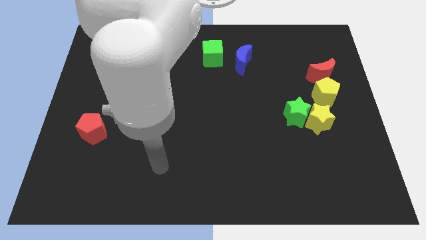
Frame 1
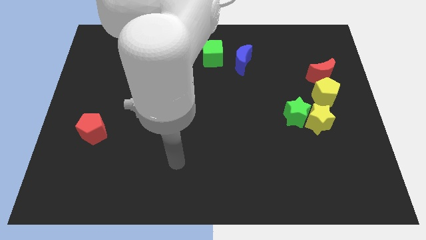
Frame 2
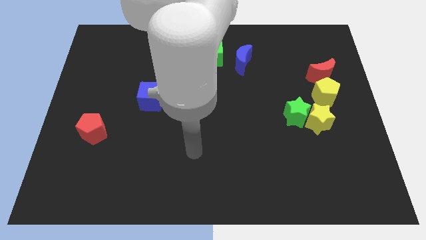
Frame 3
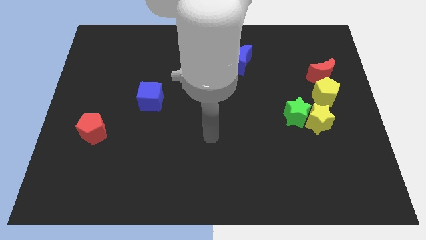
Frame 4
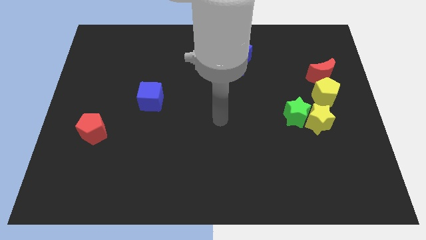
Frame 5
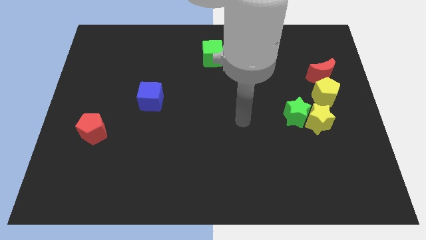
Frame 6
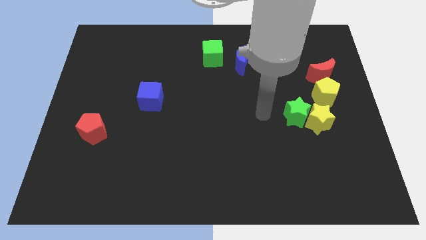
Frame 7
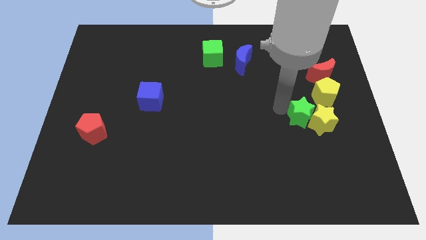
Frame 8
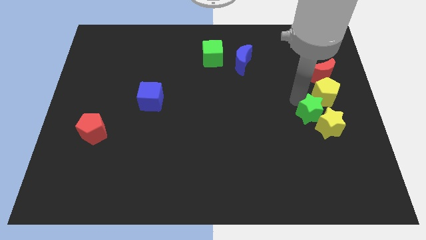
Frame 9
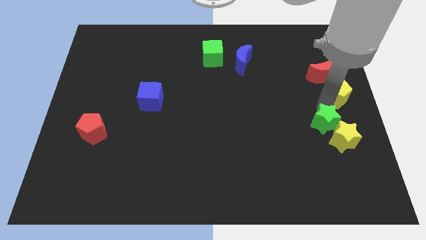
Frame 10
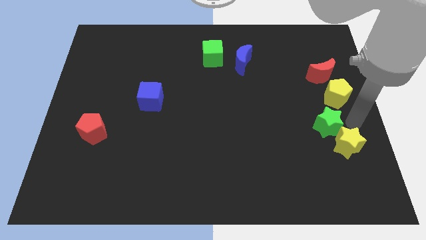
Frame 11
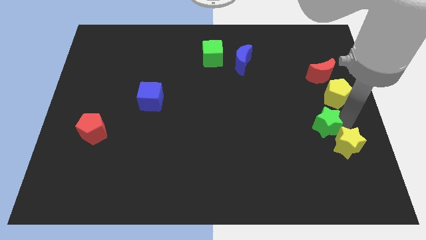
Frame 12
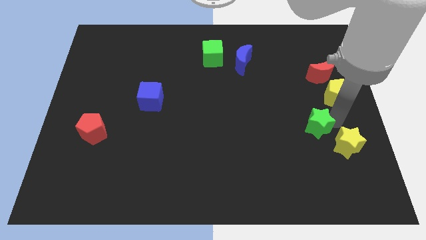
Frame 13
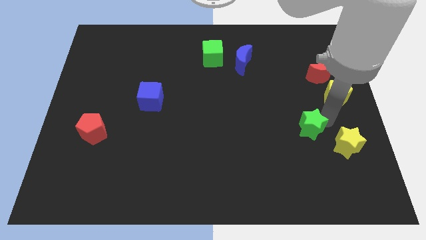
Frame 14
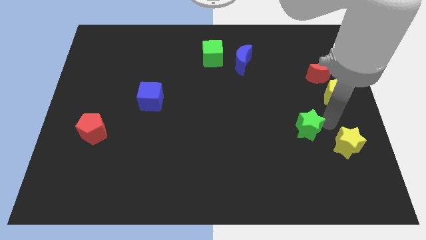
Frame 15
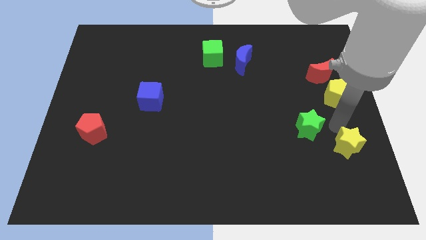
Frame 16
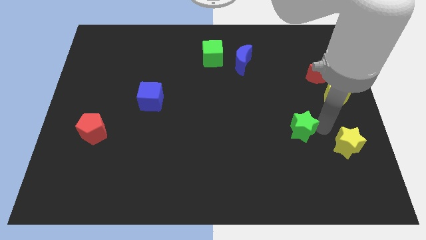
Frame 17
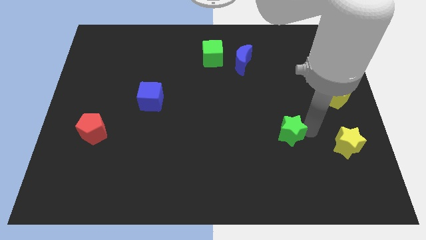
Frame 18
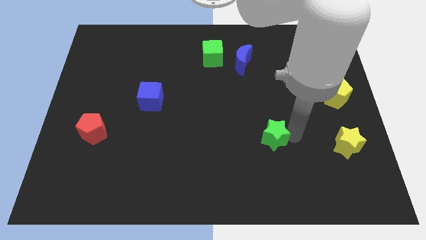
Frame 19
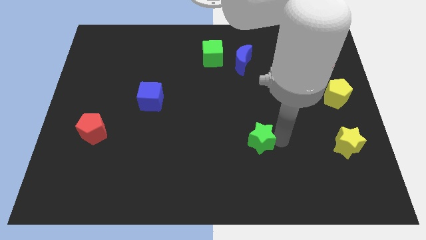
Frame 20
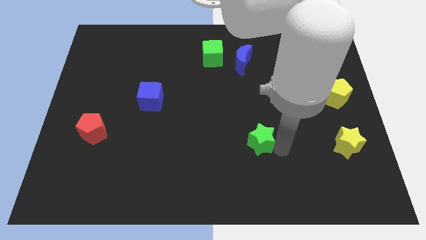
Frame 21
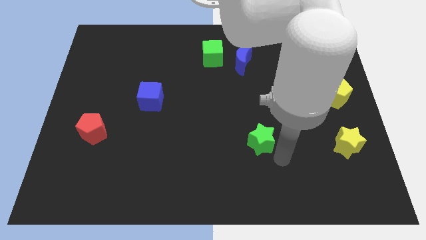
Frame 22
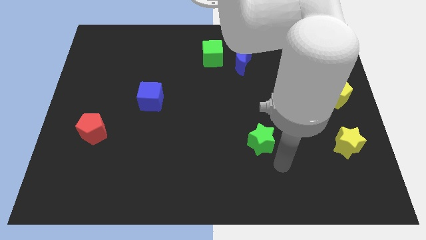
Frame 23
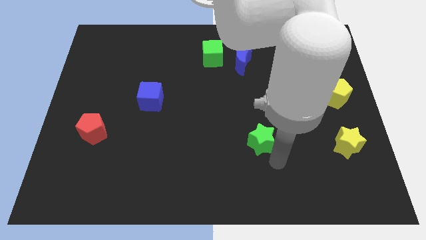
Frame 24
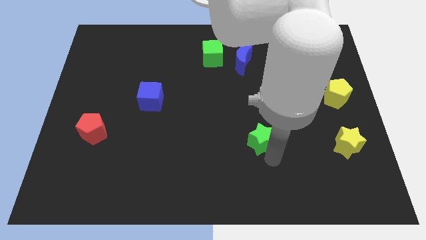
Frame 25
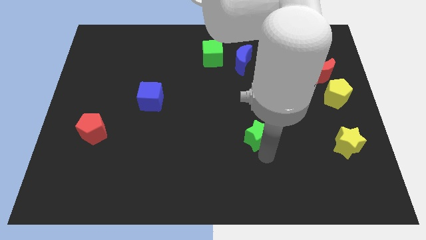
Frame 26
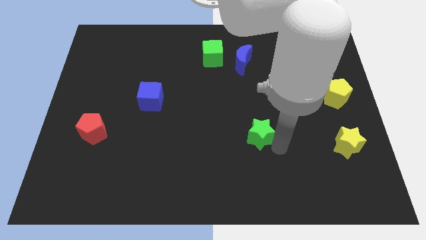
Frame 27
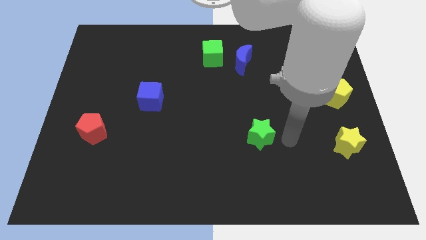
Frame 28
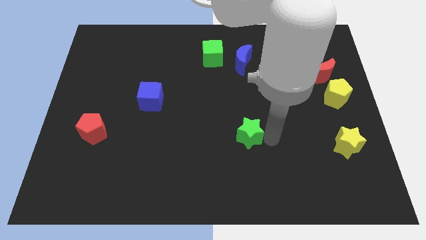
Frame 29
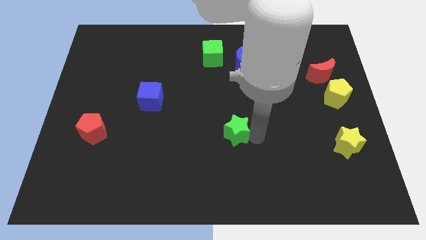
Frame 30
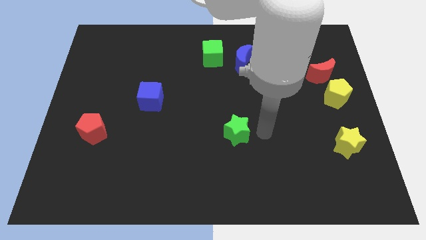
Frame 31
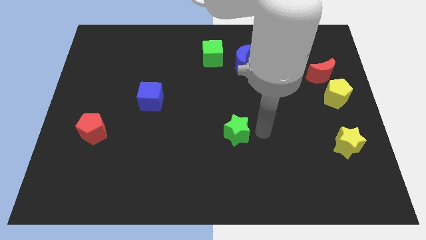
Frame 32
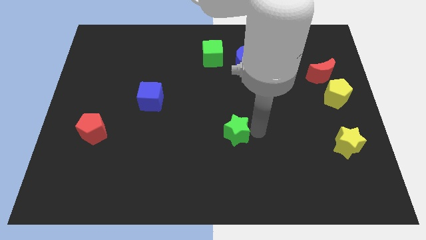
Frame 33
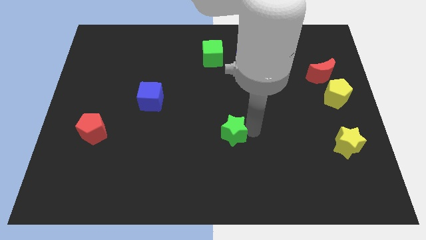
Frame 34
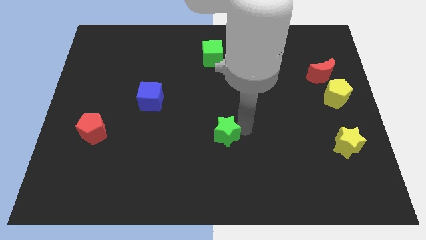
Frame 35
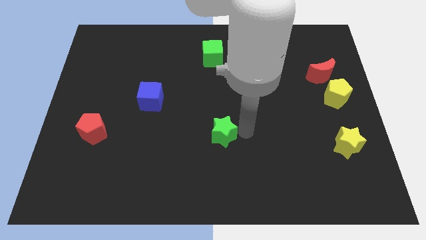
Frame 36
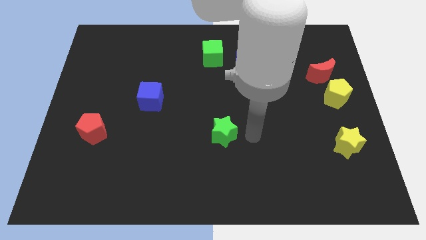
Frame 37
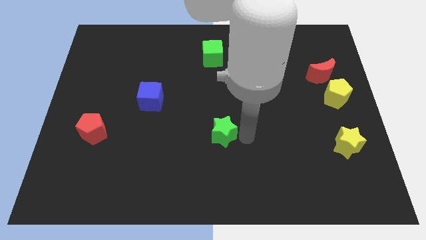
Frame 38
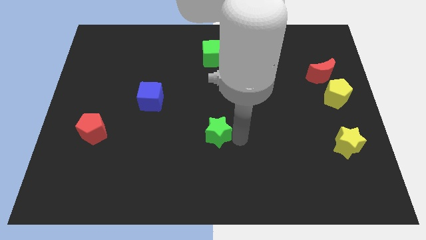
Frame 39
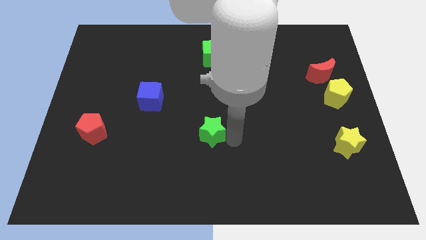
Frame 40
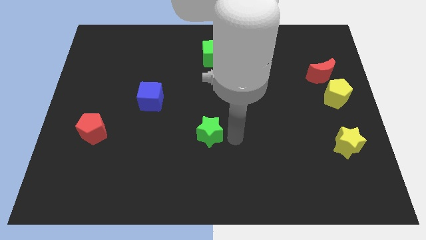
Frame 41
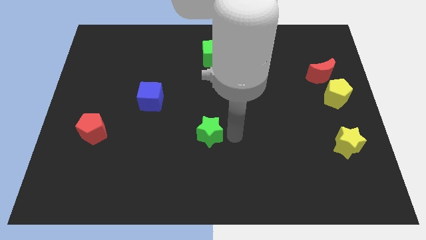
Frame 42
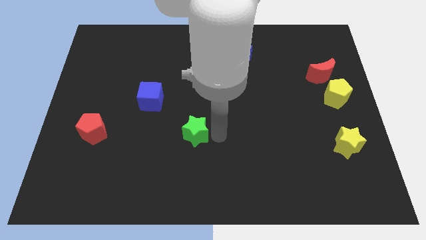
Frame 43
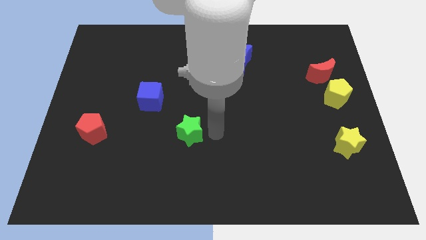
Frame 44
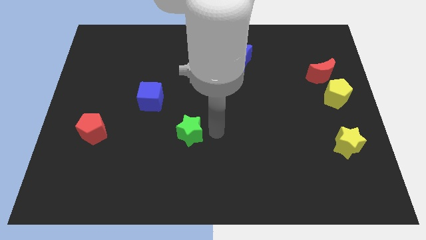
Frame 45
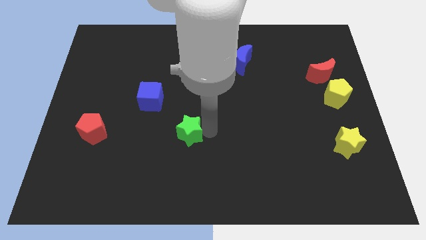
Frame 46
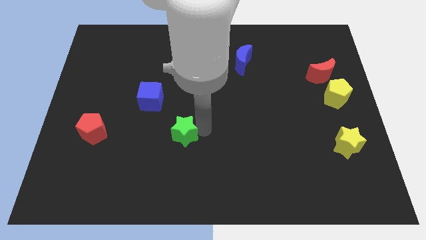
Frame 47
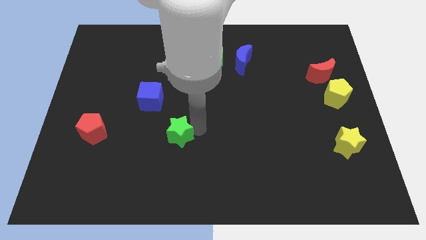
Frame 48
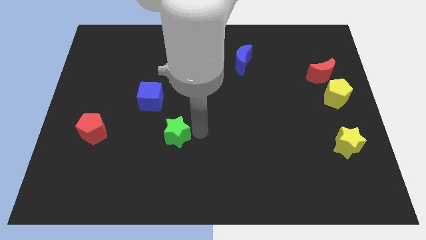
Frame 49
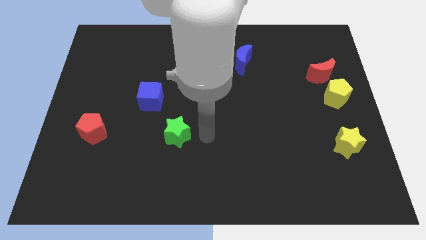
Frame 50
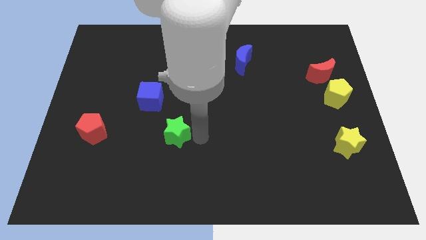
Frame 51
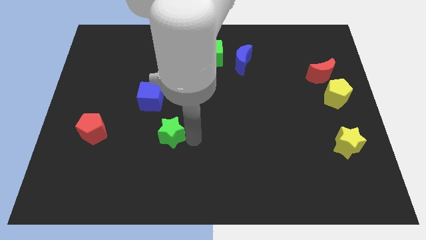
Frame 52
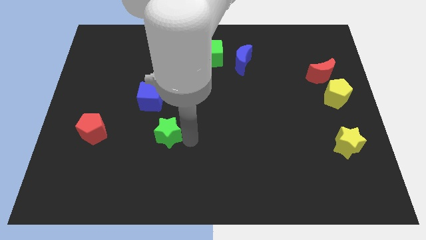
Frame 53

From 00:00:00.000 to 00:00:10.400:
push the green star to the bottom side of the blue cube

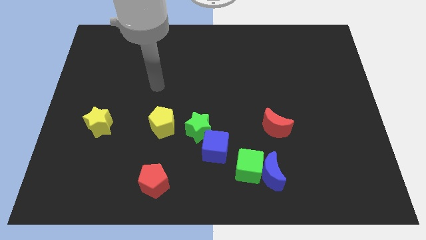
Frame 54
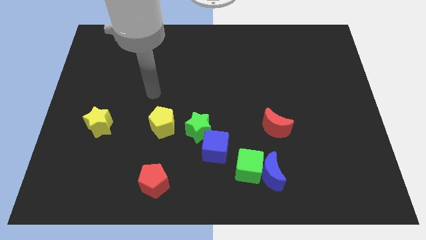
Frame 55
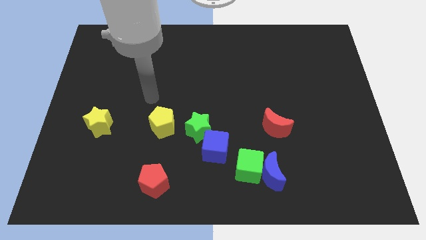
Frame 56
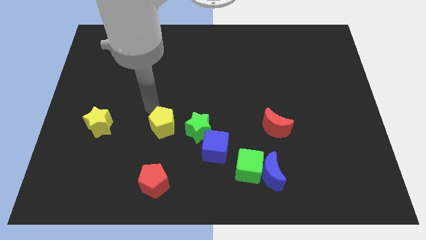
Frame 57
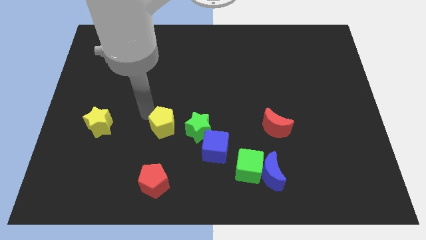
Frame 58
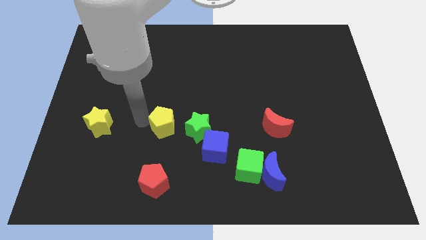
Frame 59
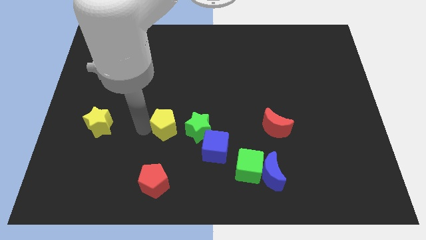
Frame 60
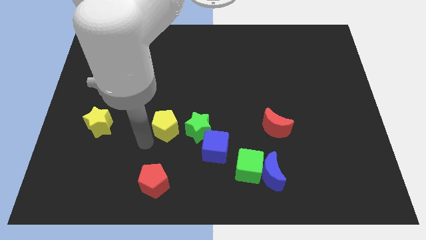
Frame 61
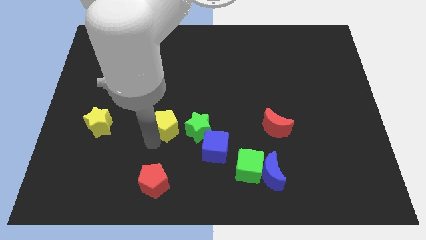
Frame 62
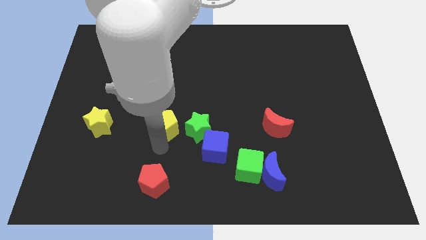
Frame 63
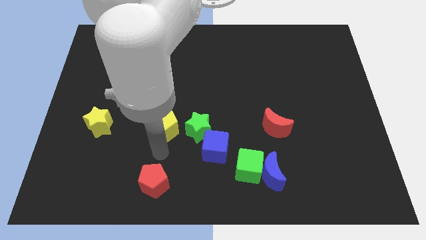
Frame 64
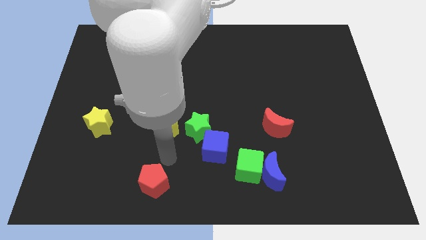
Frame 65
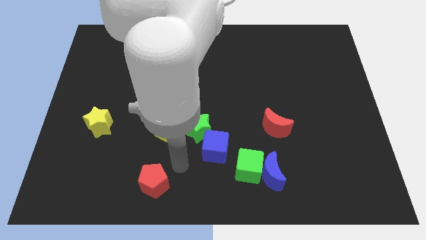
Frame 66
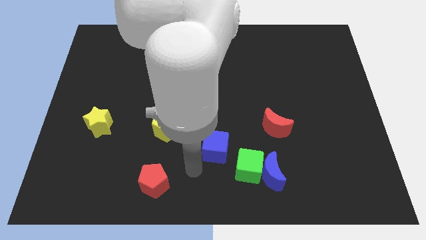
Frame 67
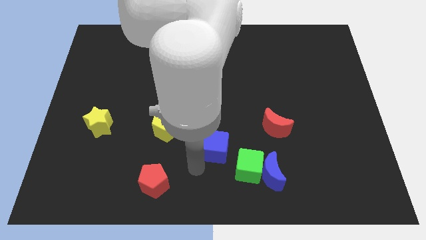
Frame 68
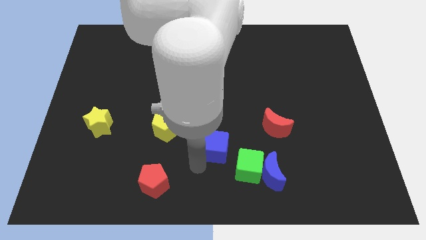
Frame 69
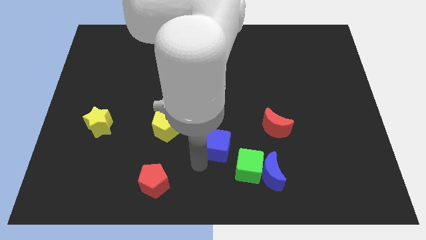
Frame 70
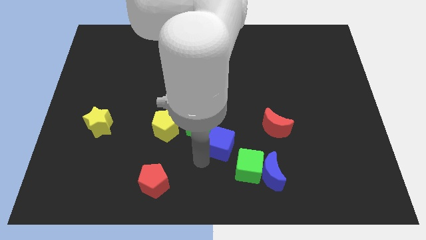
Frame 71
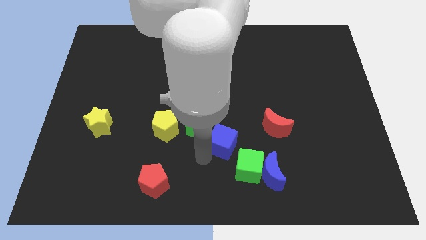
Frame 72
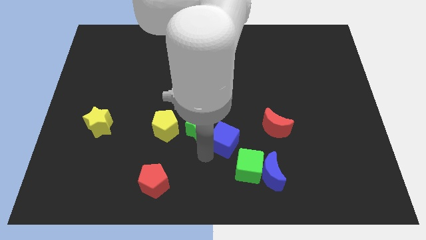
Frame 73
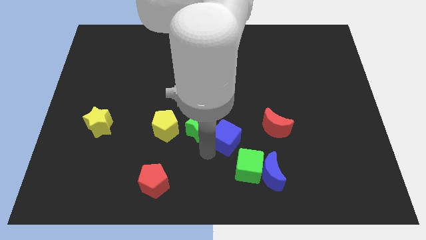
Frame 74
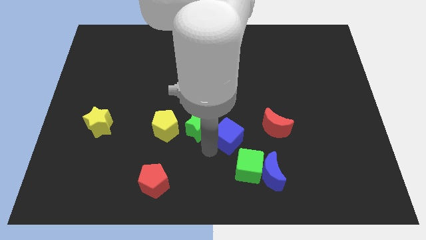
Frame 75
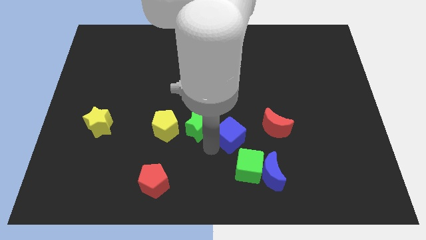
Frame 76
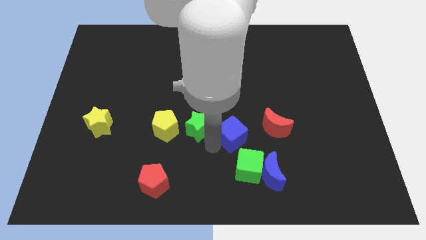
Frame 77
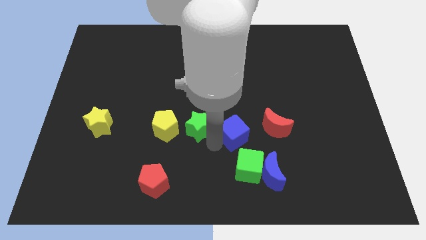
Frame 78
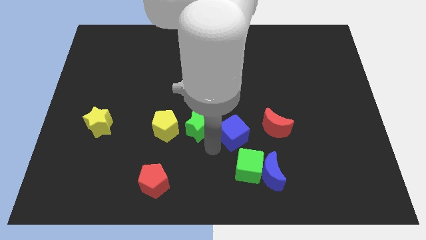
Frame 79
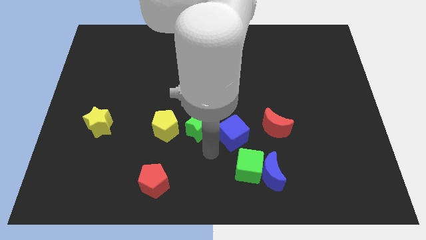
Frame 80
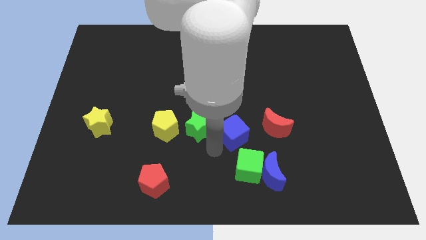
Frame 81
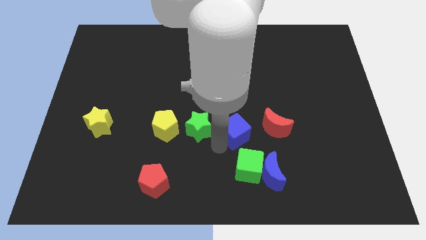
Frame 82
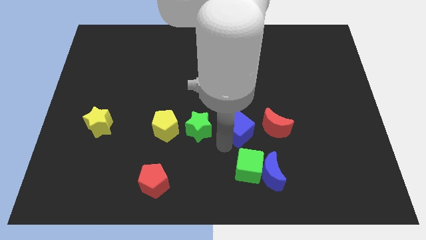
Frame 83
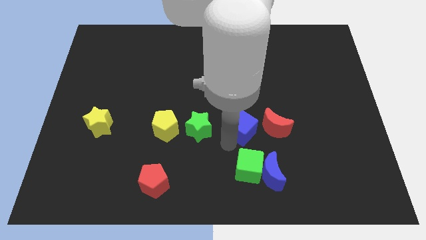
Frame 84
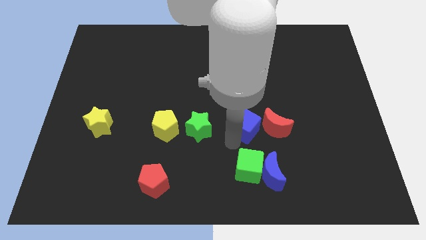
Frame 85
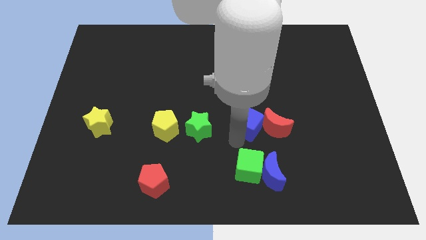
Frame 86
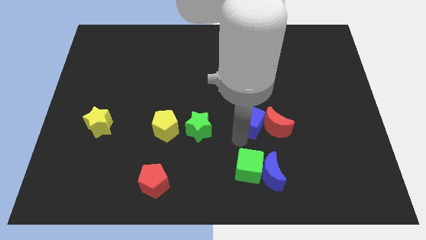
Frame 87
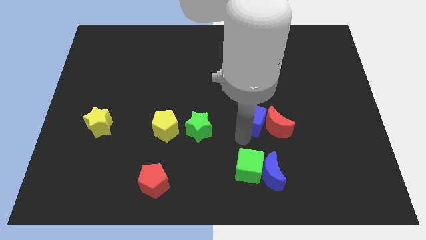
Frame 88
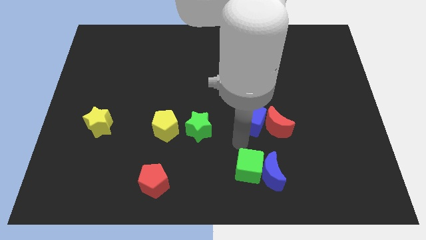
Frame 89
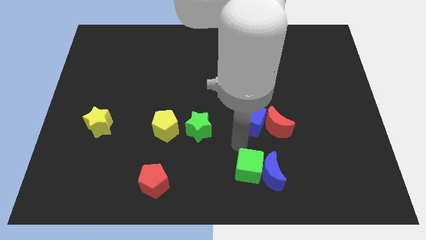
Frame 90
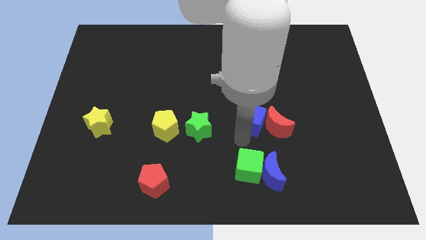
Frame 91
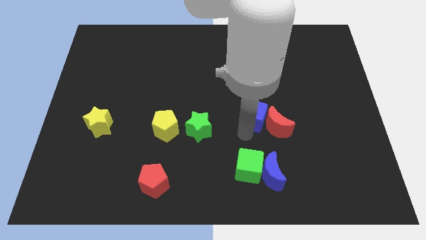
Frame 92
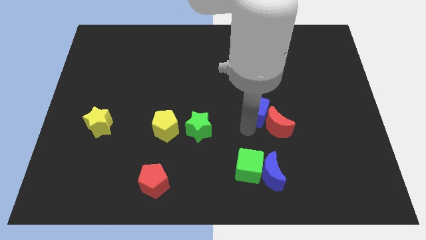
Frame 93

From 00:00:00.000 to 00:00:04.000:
move the blue cube above the red moon
